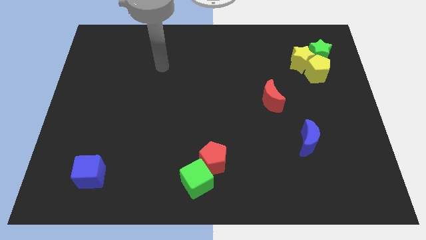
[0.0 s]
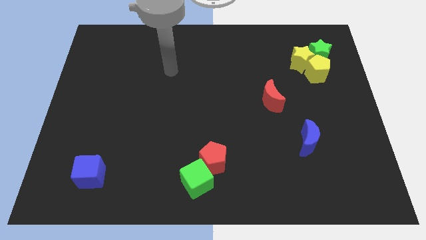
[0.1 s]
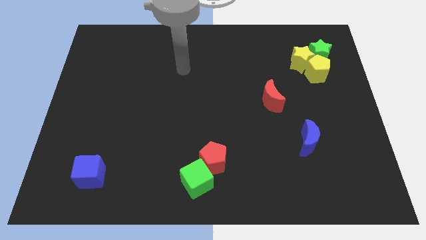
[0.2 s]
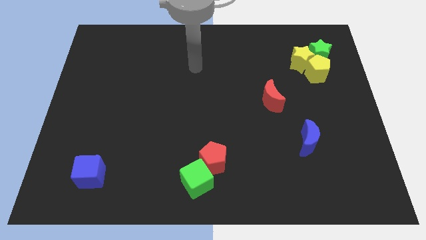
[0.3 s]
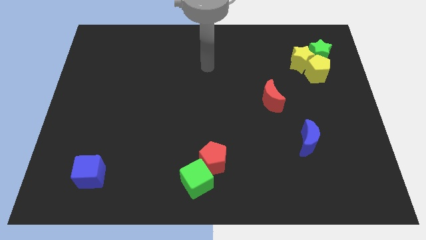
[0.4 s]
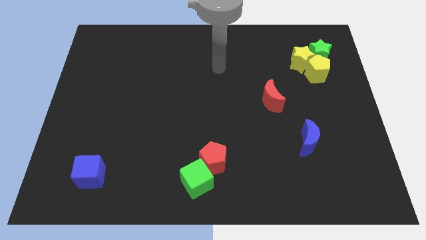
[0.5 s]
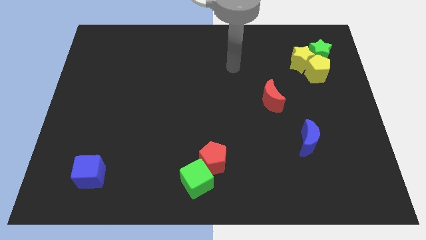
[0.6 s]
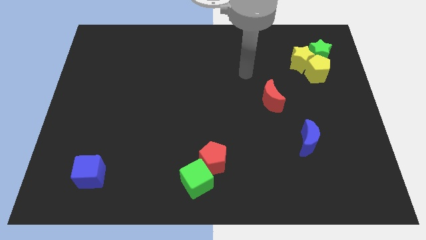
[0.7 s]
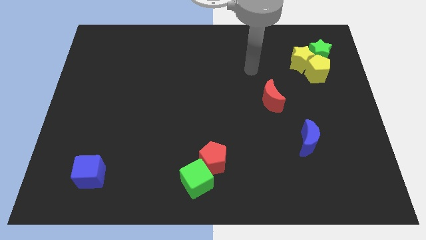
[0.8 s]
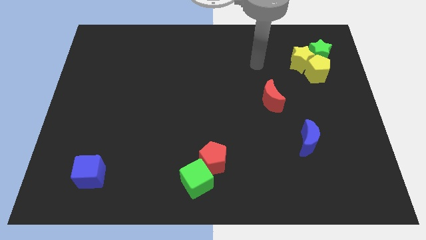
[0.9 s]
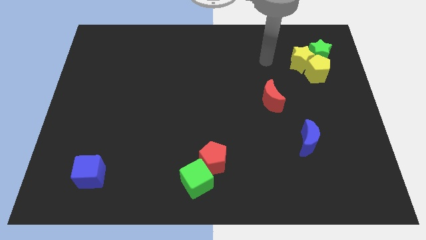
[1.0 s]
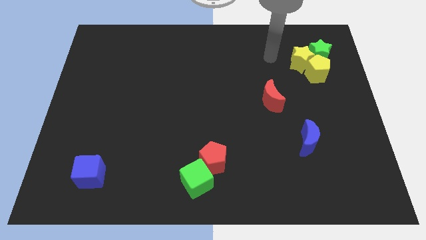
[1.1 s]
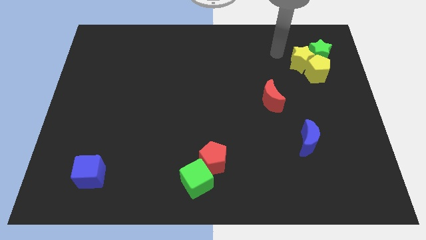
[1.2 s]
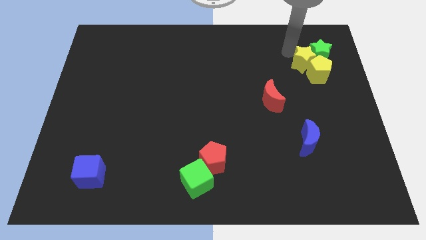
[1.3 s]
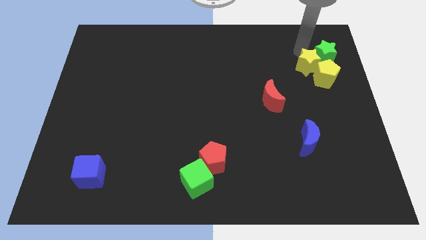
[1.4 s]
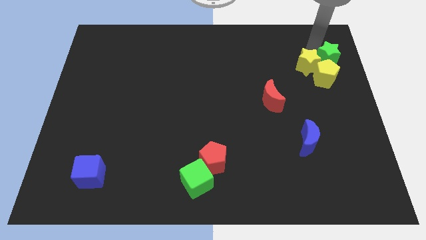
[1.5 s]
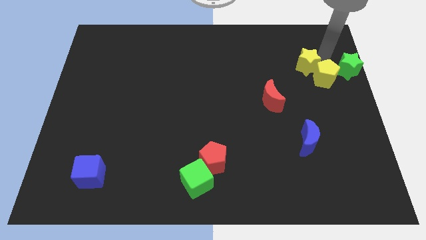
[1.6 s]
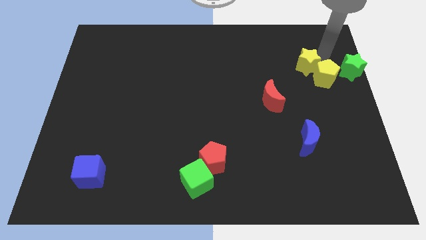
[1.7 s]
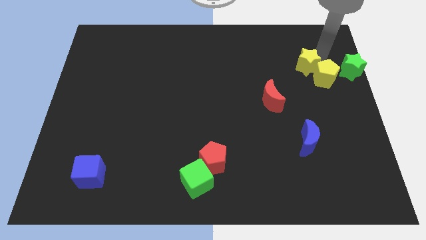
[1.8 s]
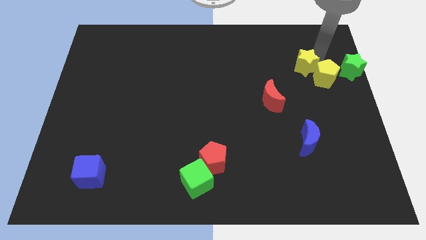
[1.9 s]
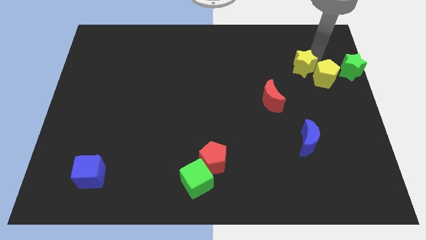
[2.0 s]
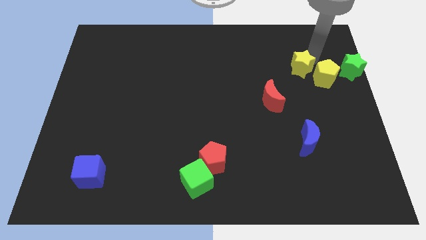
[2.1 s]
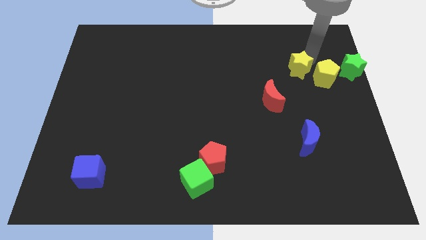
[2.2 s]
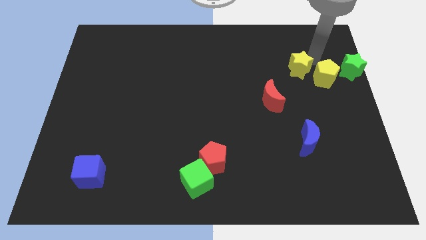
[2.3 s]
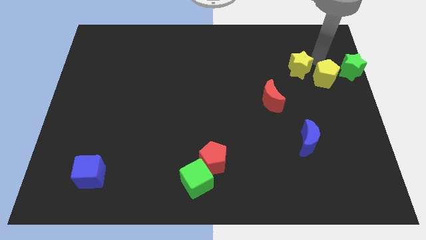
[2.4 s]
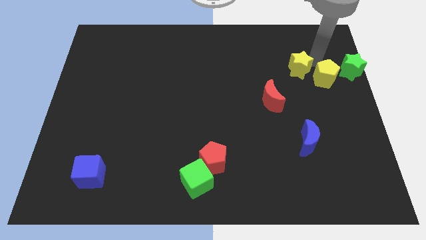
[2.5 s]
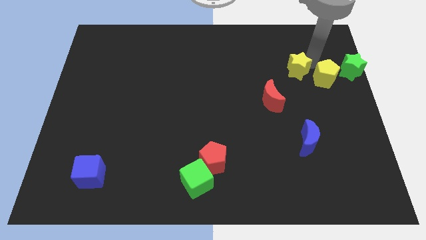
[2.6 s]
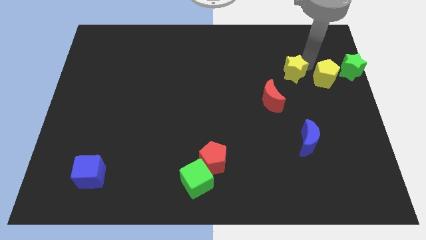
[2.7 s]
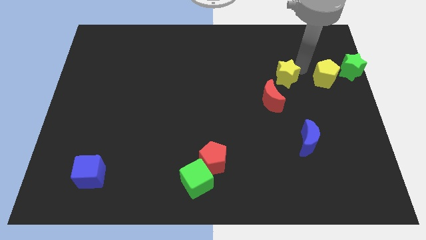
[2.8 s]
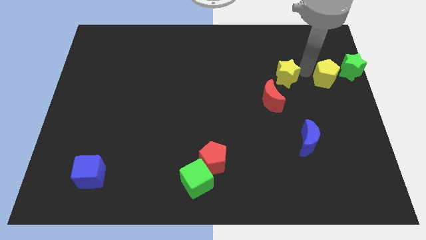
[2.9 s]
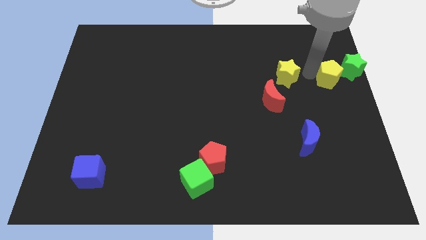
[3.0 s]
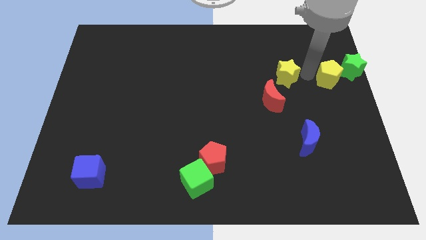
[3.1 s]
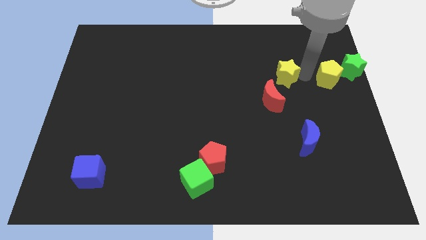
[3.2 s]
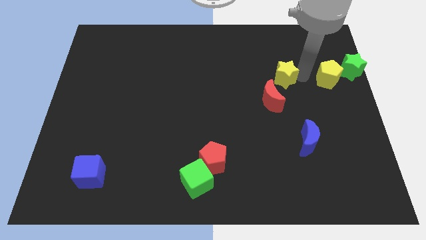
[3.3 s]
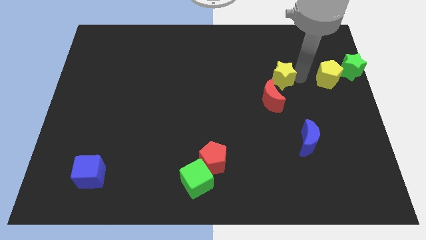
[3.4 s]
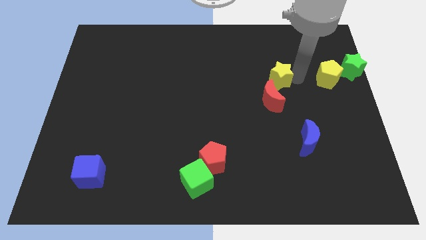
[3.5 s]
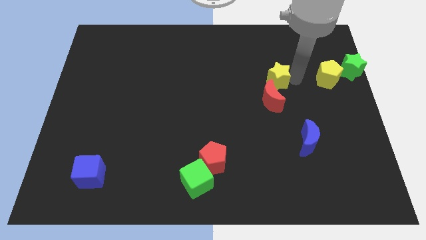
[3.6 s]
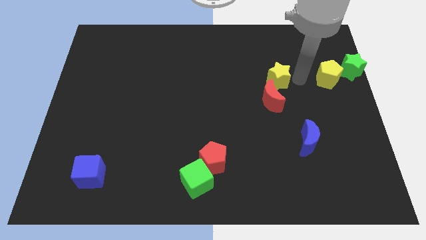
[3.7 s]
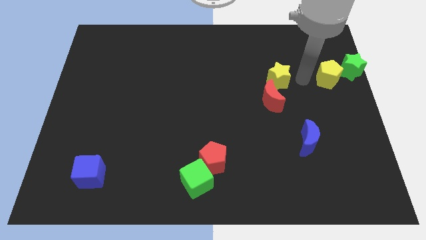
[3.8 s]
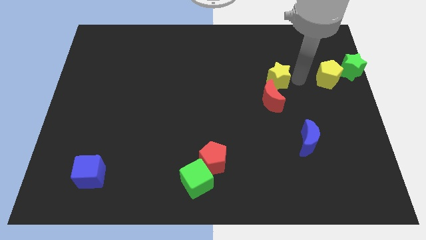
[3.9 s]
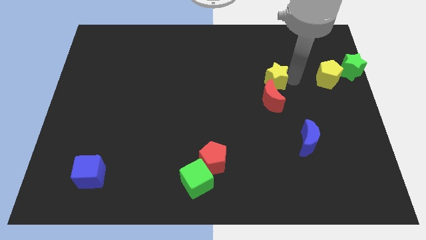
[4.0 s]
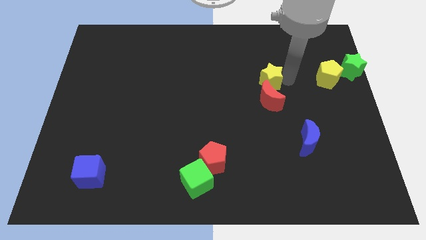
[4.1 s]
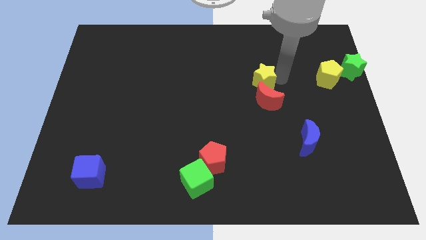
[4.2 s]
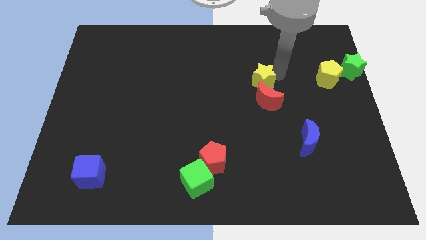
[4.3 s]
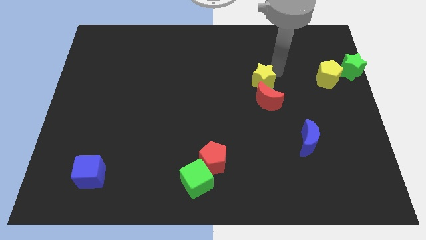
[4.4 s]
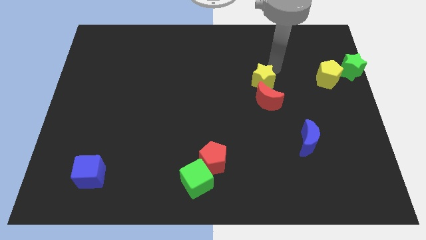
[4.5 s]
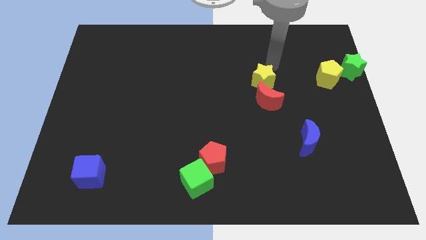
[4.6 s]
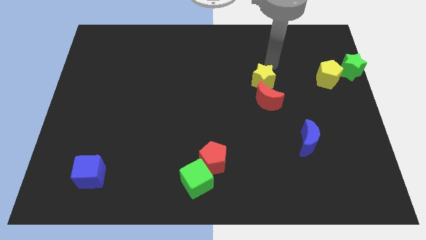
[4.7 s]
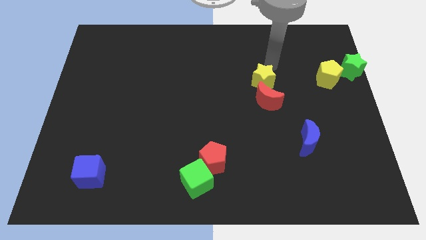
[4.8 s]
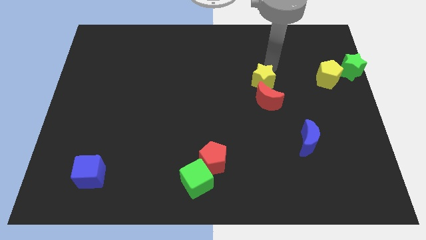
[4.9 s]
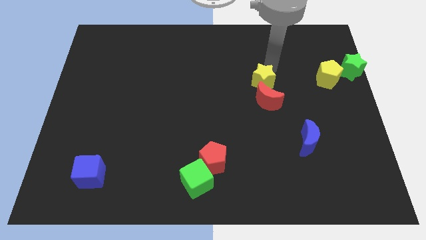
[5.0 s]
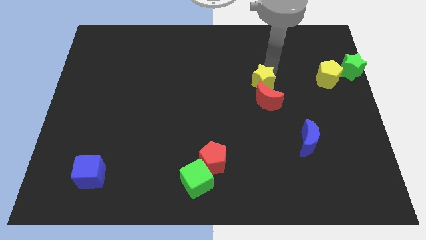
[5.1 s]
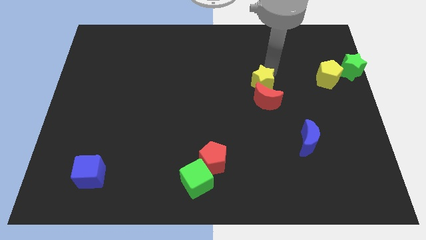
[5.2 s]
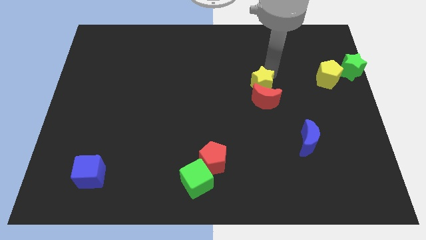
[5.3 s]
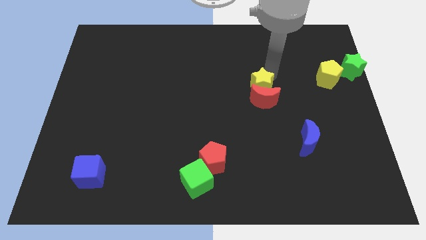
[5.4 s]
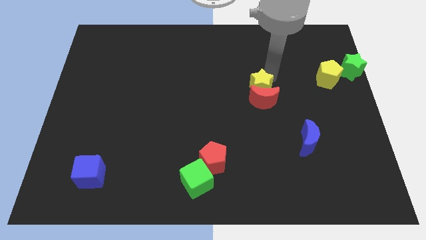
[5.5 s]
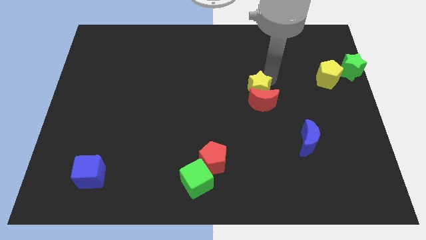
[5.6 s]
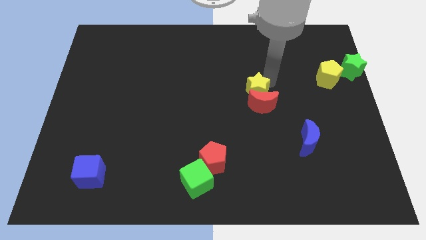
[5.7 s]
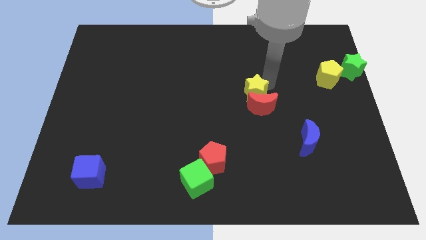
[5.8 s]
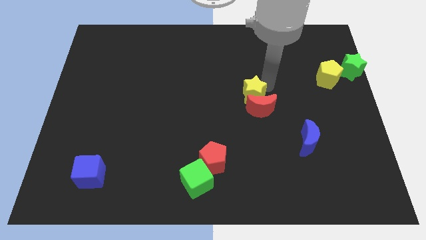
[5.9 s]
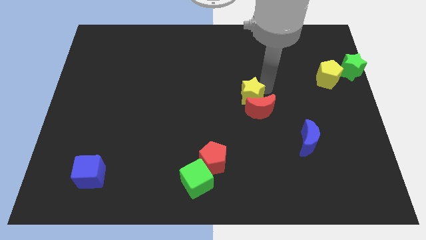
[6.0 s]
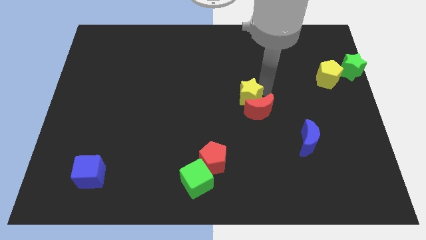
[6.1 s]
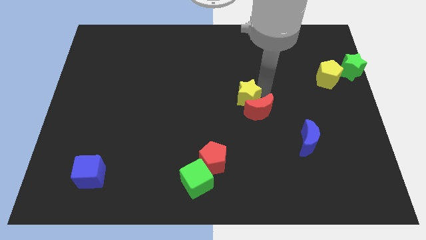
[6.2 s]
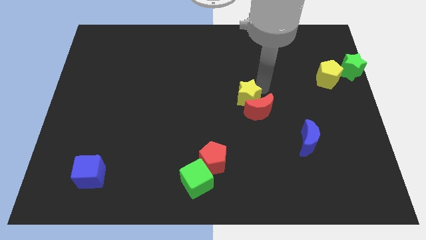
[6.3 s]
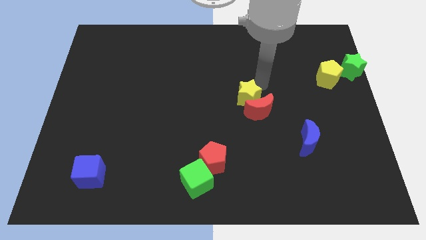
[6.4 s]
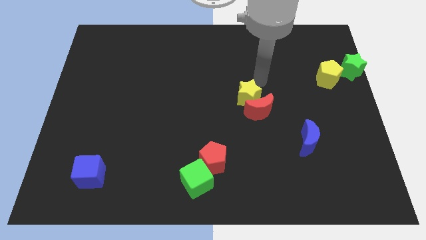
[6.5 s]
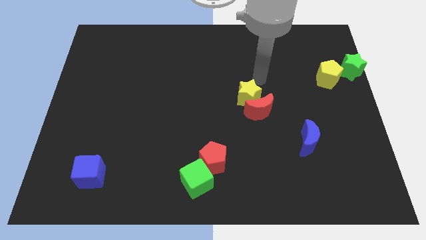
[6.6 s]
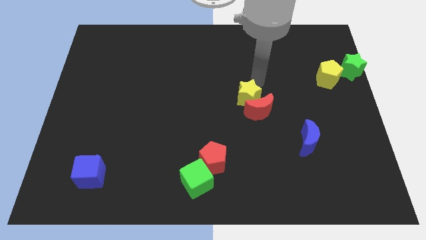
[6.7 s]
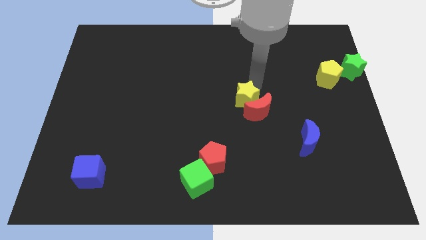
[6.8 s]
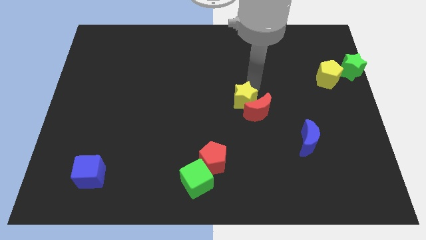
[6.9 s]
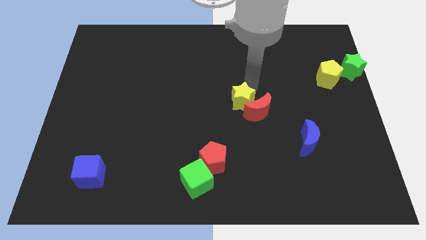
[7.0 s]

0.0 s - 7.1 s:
slide the yellow star down and then to the left

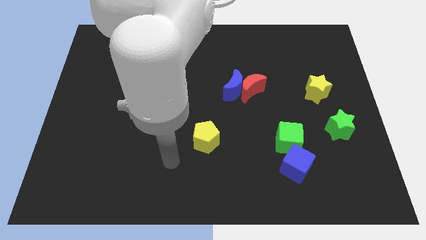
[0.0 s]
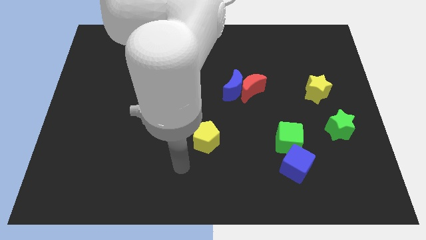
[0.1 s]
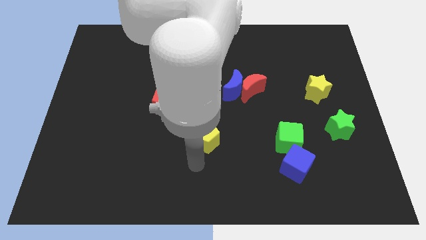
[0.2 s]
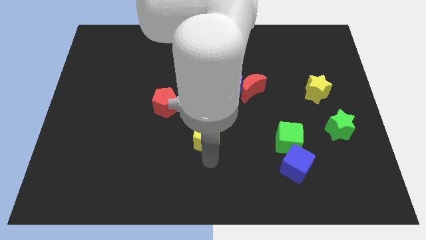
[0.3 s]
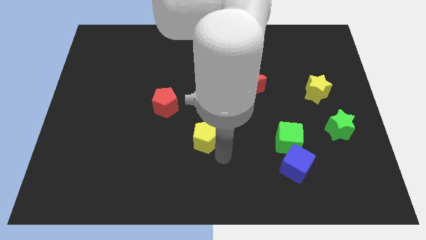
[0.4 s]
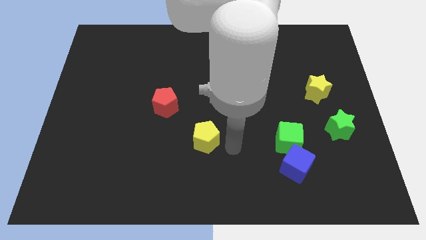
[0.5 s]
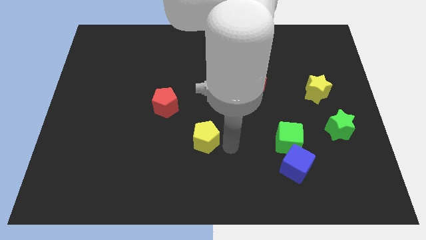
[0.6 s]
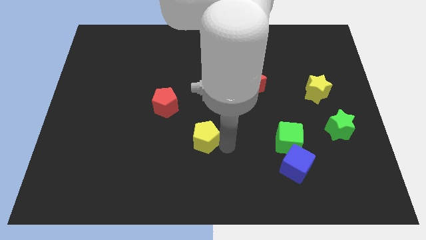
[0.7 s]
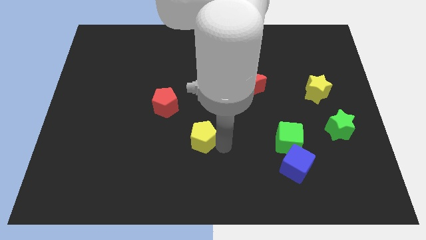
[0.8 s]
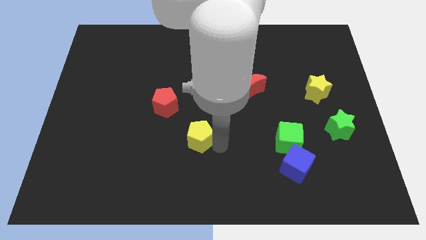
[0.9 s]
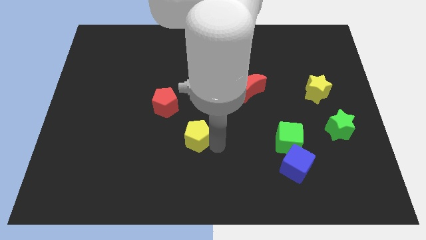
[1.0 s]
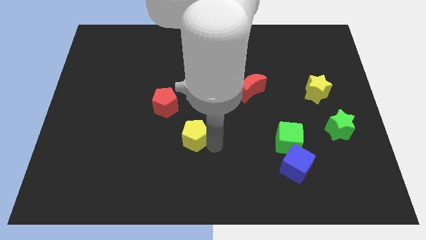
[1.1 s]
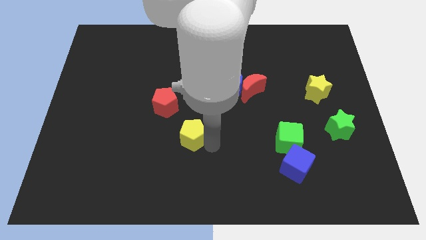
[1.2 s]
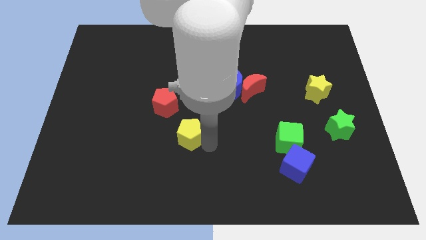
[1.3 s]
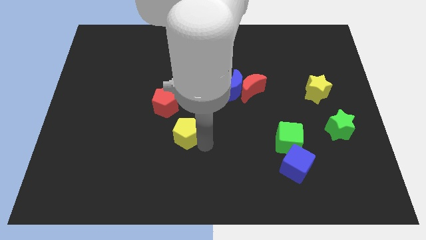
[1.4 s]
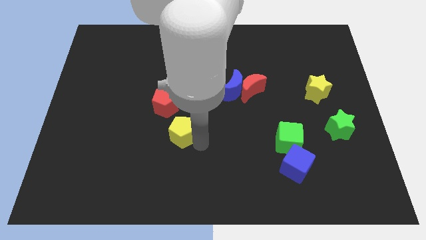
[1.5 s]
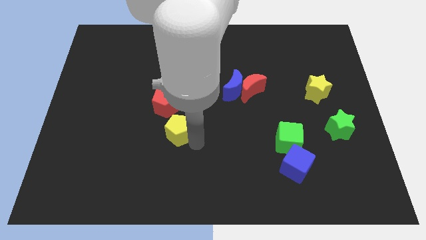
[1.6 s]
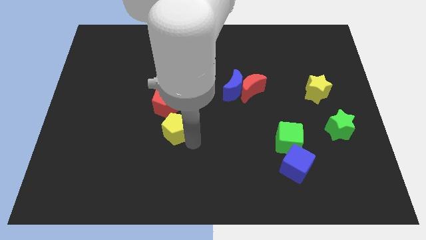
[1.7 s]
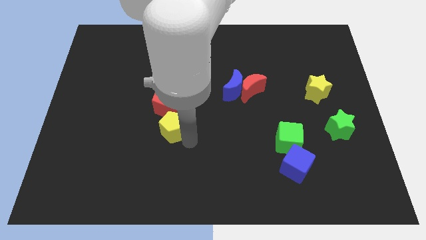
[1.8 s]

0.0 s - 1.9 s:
push the yellow pentagon a little upwards and left
